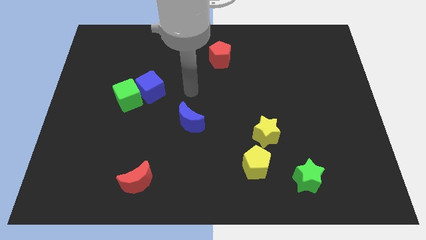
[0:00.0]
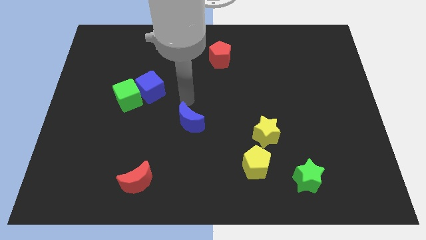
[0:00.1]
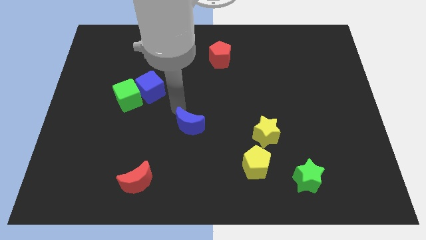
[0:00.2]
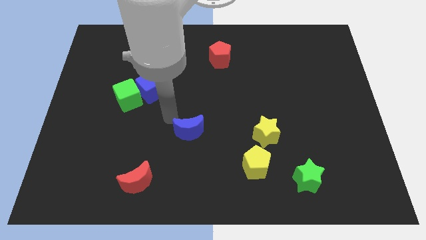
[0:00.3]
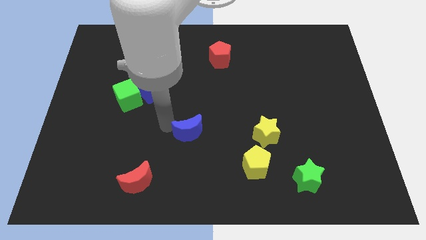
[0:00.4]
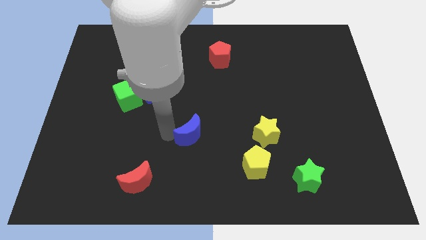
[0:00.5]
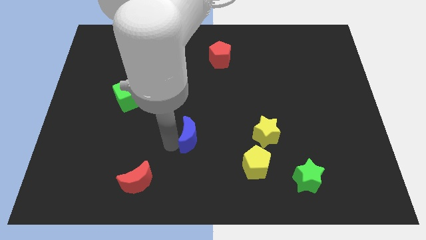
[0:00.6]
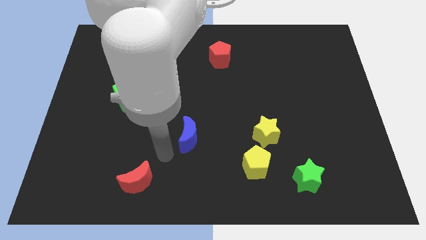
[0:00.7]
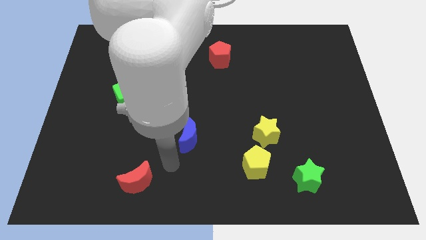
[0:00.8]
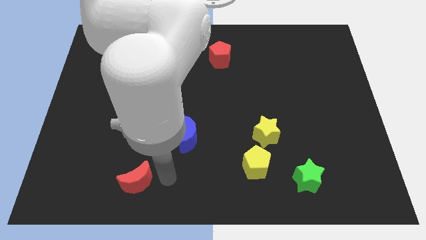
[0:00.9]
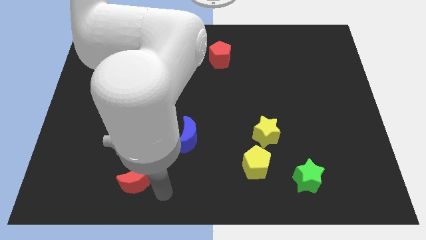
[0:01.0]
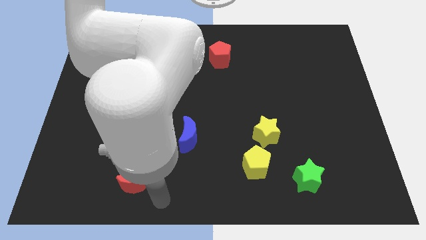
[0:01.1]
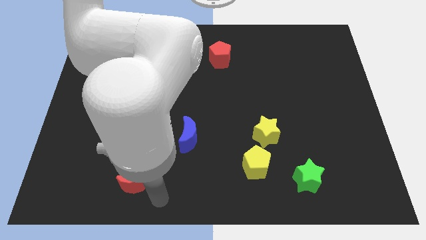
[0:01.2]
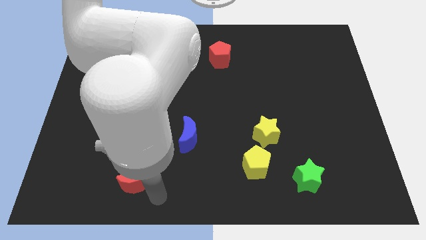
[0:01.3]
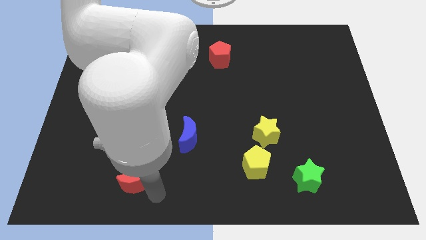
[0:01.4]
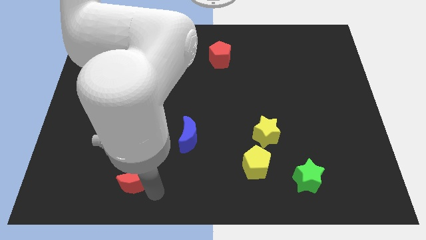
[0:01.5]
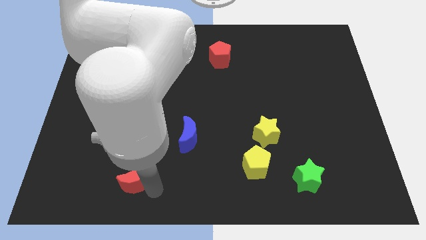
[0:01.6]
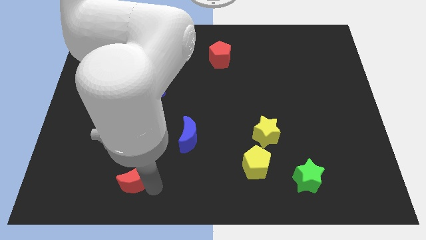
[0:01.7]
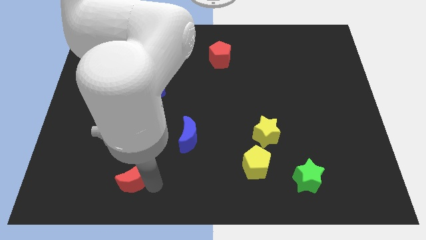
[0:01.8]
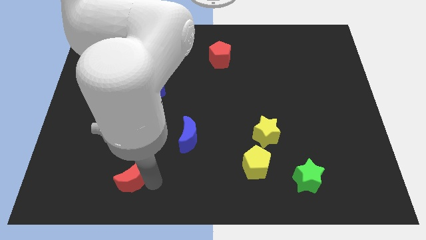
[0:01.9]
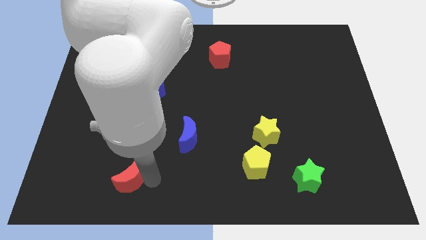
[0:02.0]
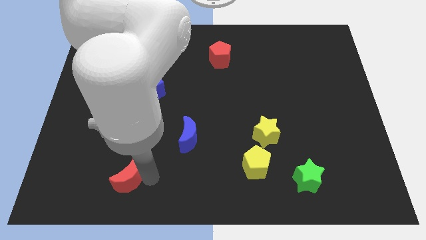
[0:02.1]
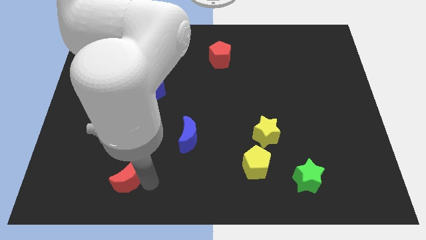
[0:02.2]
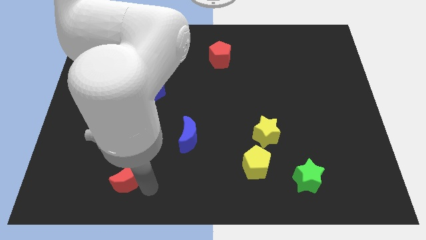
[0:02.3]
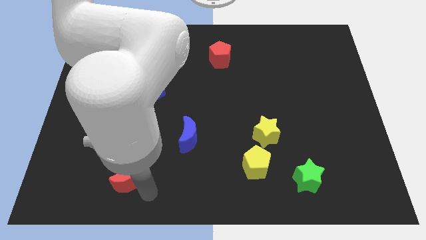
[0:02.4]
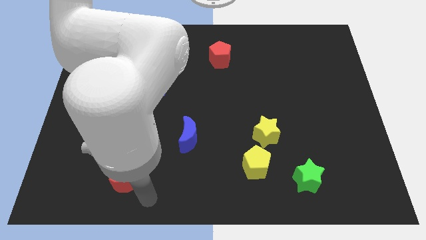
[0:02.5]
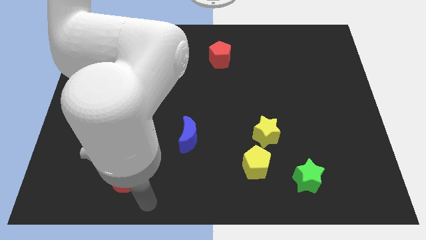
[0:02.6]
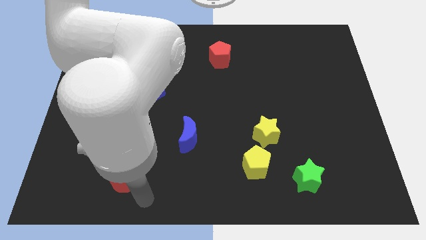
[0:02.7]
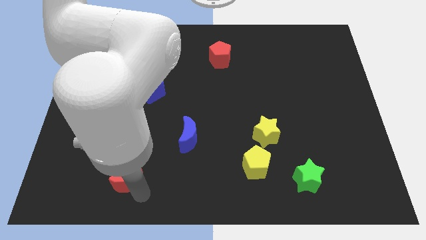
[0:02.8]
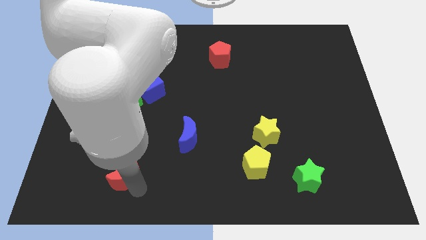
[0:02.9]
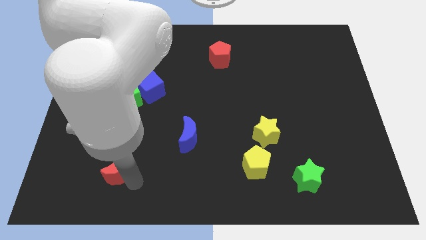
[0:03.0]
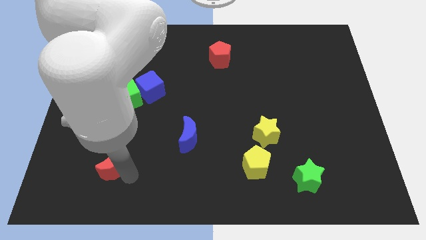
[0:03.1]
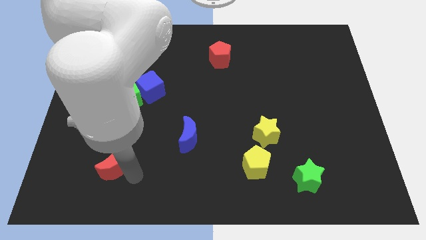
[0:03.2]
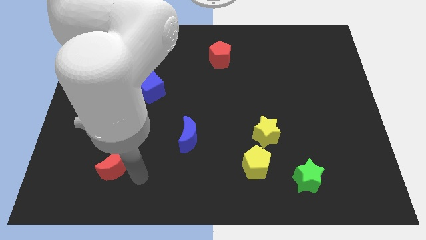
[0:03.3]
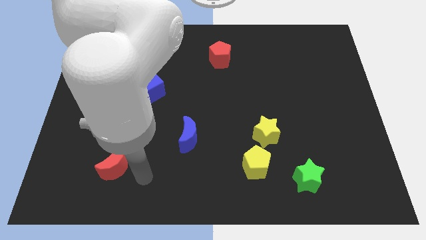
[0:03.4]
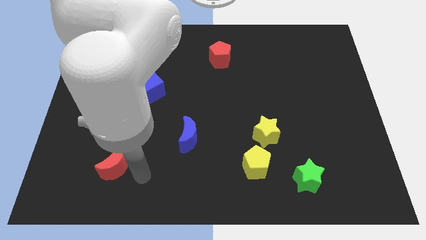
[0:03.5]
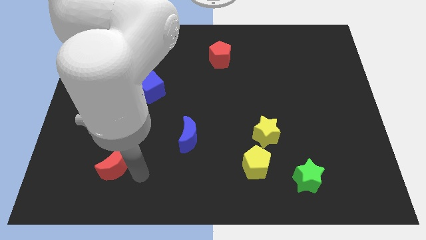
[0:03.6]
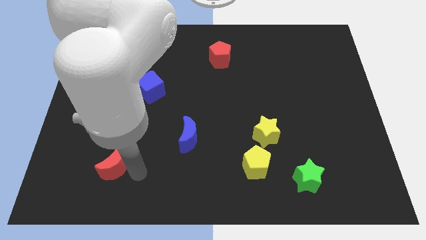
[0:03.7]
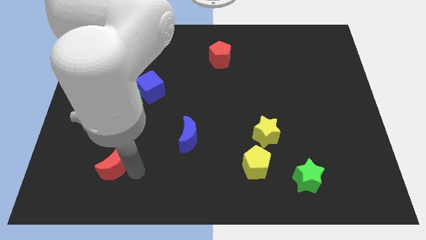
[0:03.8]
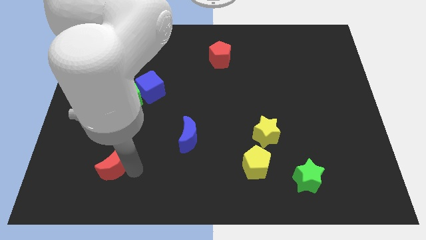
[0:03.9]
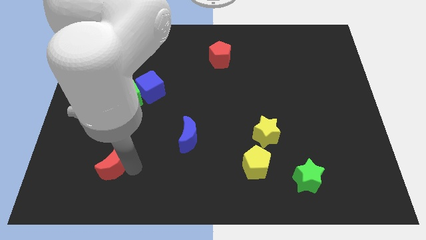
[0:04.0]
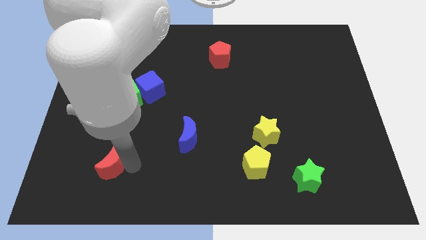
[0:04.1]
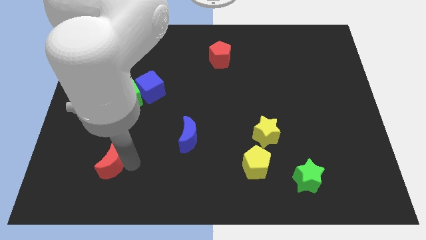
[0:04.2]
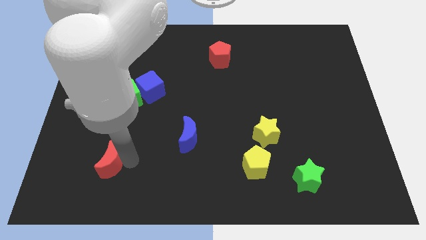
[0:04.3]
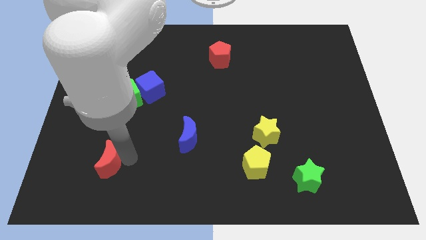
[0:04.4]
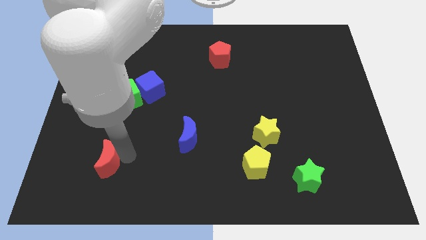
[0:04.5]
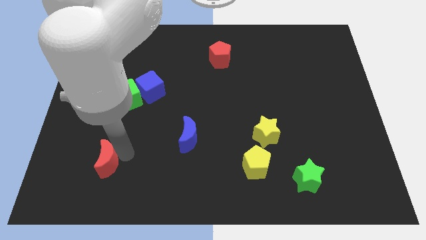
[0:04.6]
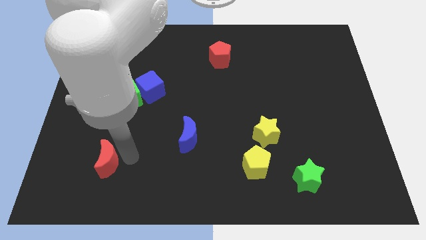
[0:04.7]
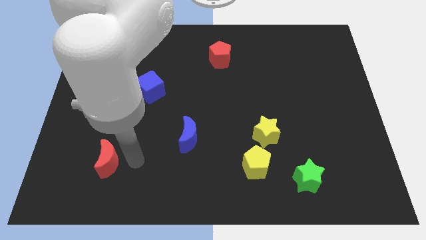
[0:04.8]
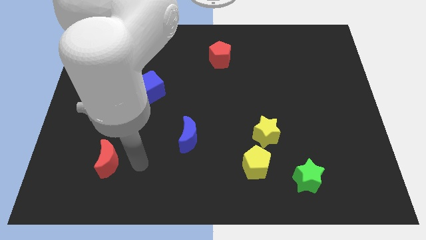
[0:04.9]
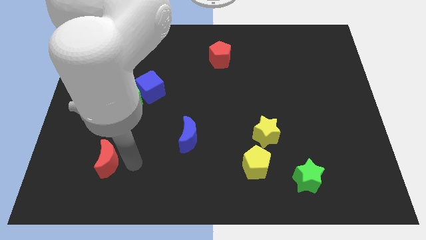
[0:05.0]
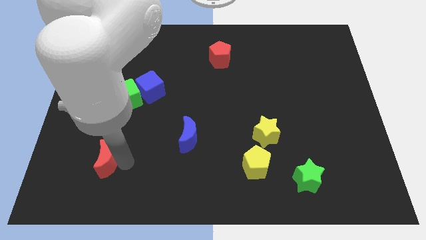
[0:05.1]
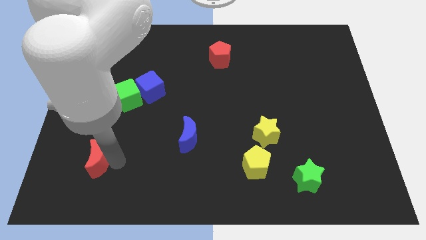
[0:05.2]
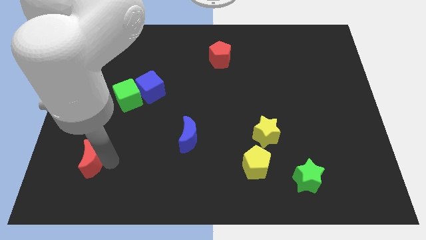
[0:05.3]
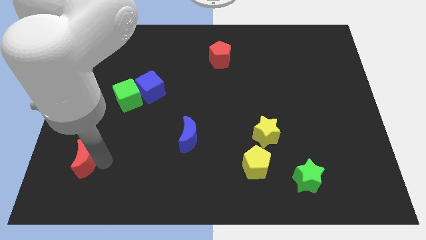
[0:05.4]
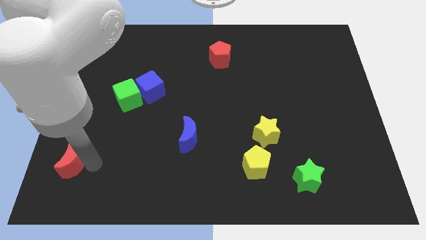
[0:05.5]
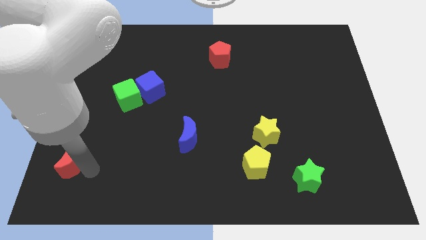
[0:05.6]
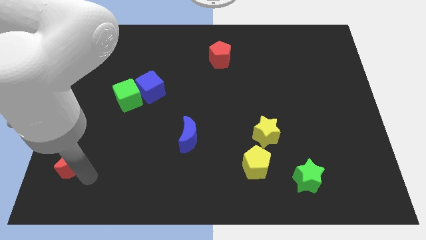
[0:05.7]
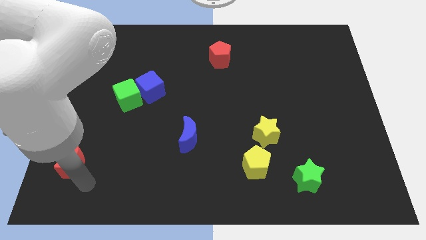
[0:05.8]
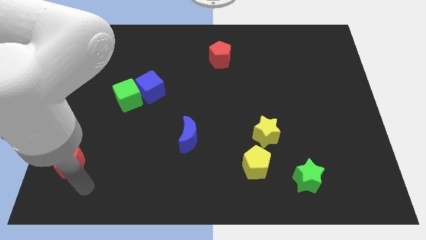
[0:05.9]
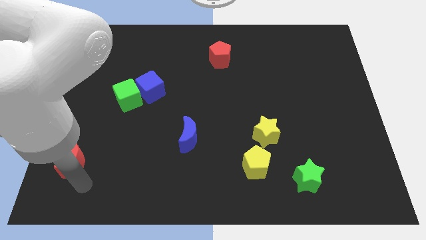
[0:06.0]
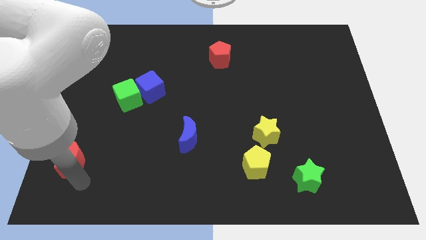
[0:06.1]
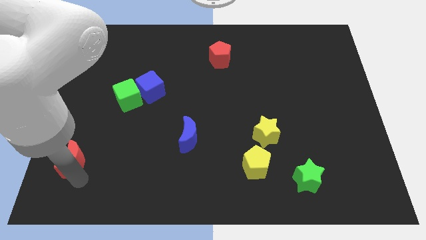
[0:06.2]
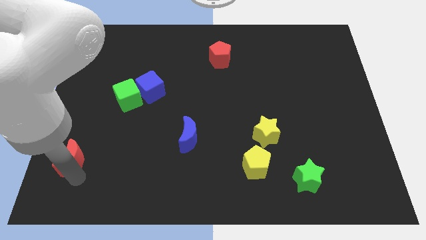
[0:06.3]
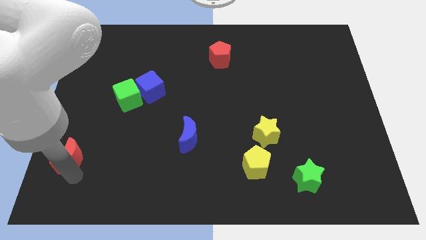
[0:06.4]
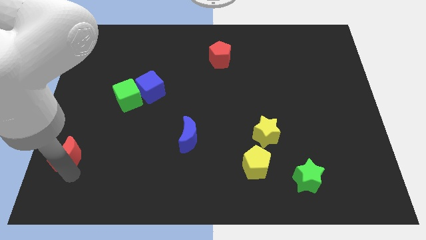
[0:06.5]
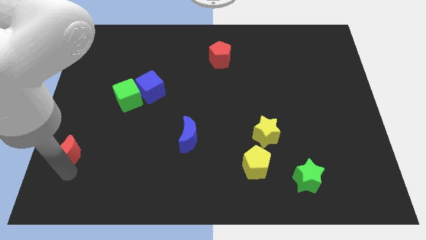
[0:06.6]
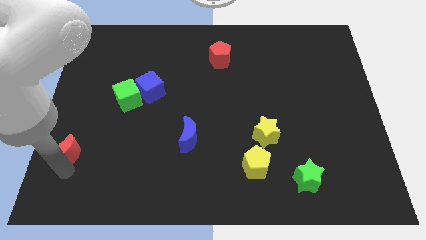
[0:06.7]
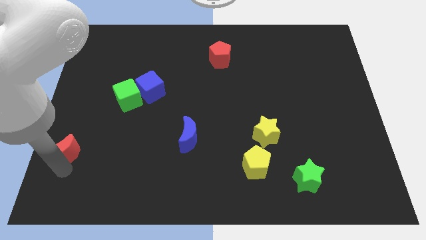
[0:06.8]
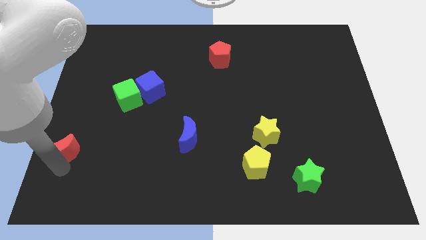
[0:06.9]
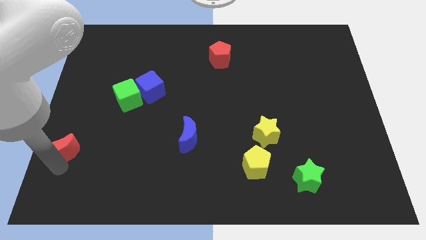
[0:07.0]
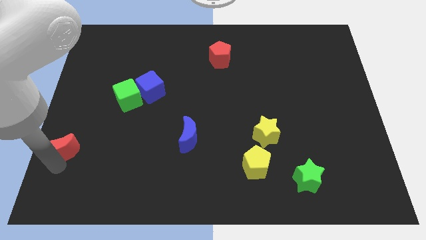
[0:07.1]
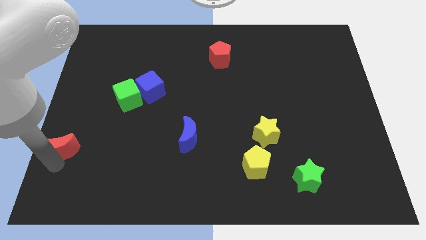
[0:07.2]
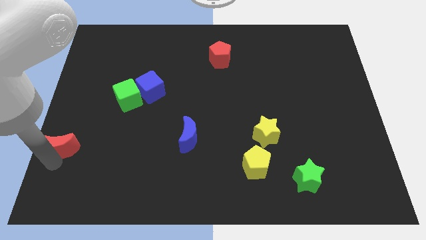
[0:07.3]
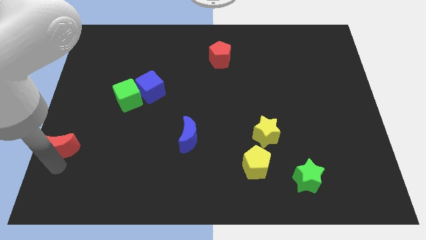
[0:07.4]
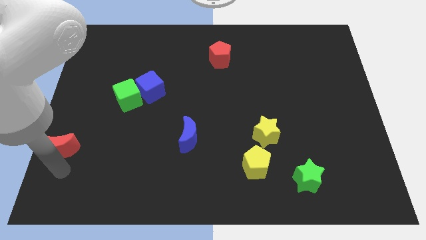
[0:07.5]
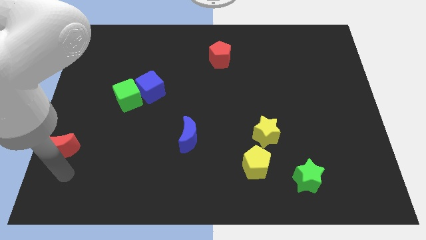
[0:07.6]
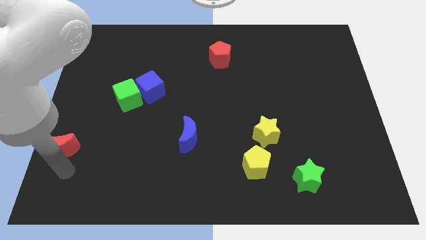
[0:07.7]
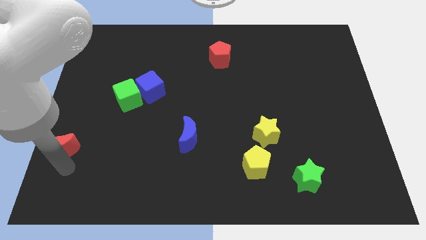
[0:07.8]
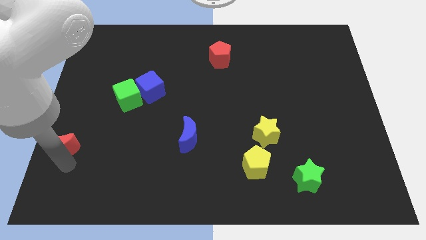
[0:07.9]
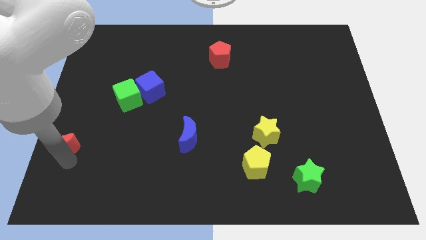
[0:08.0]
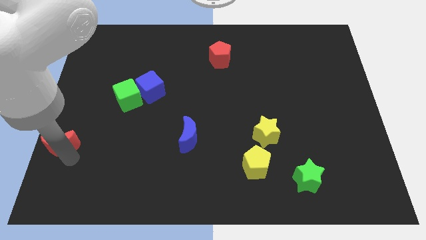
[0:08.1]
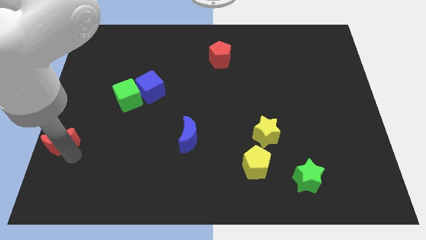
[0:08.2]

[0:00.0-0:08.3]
put the red moon to the left side of the board
